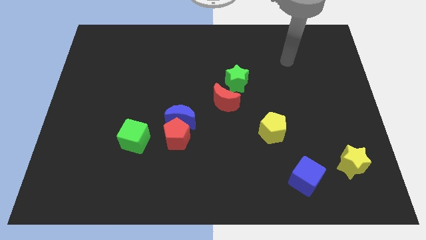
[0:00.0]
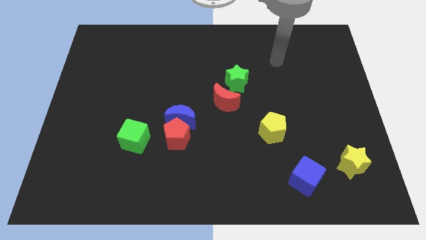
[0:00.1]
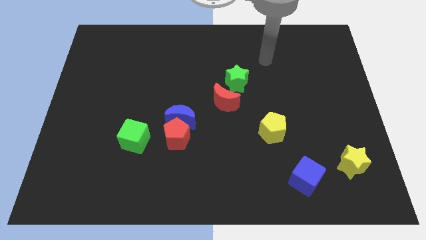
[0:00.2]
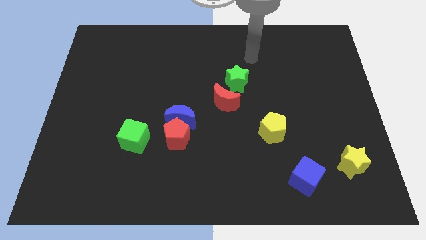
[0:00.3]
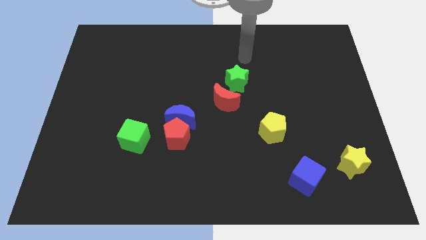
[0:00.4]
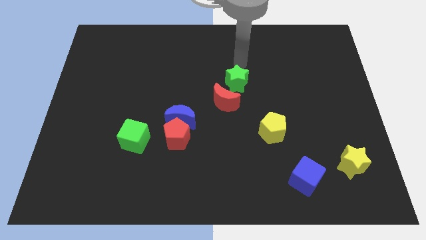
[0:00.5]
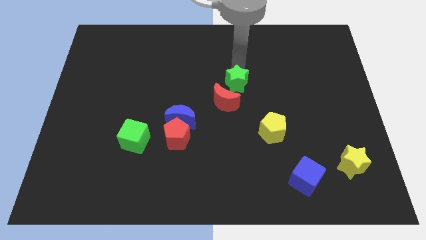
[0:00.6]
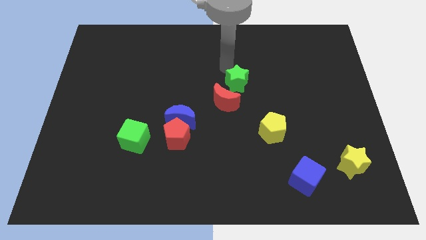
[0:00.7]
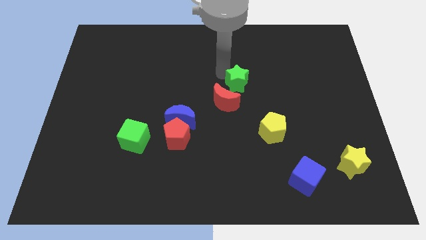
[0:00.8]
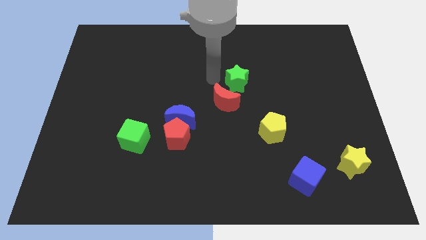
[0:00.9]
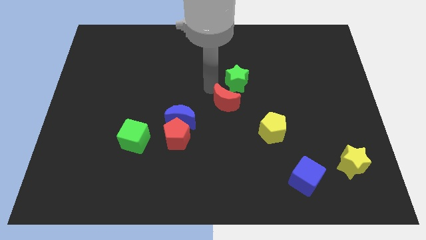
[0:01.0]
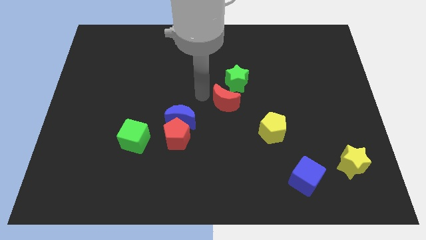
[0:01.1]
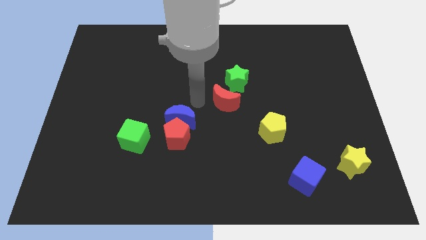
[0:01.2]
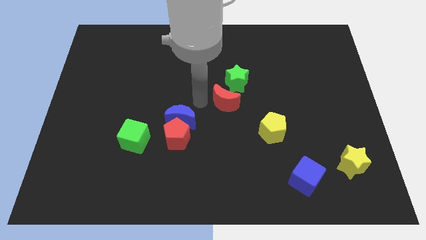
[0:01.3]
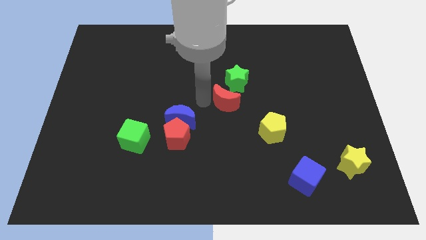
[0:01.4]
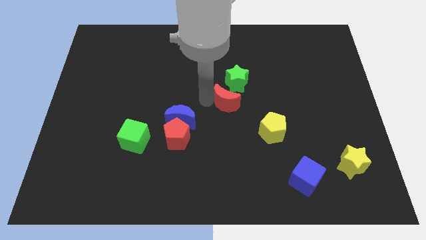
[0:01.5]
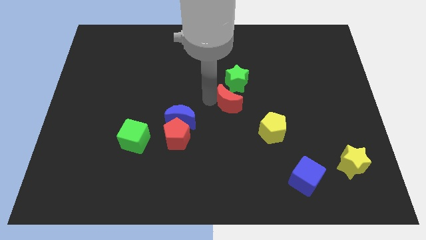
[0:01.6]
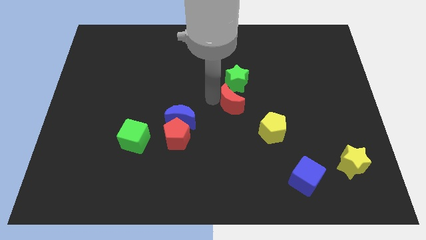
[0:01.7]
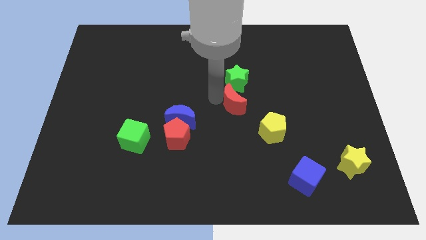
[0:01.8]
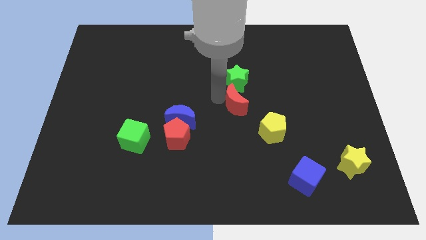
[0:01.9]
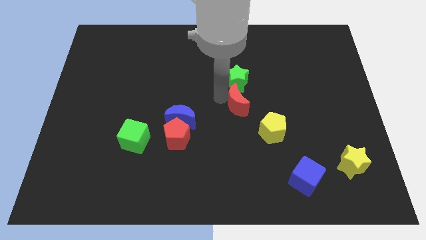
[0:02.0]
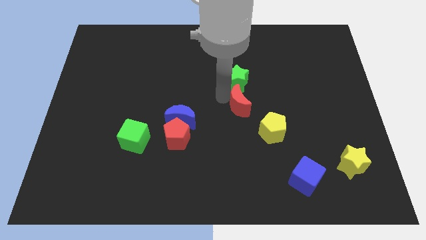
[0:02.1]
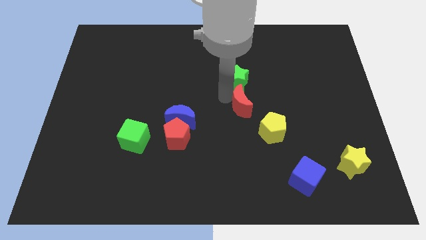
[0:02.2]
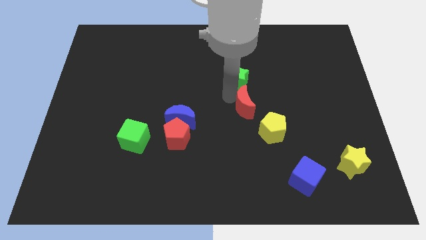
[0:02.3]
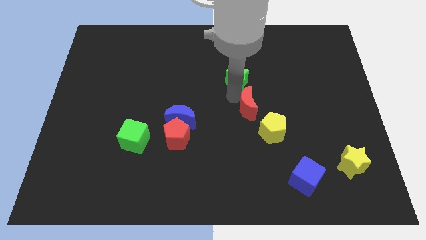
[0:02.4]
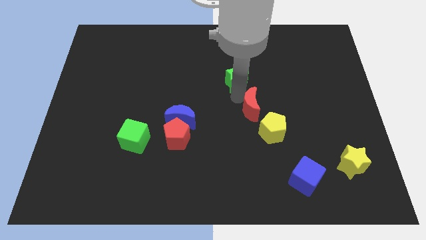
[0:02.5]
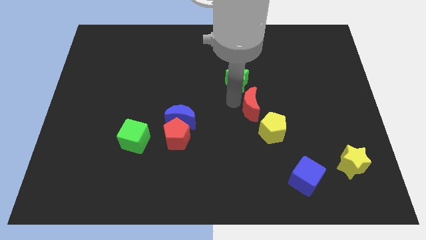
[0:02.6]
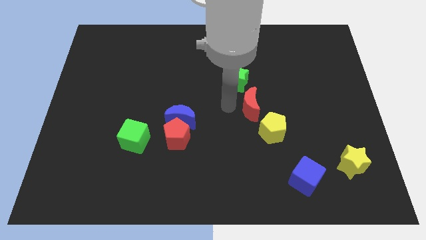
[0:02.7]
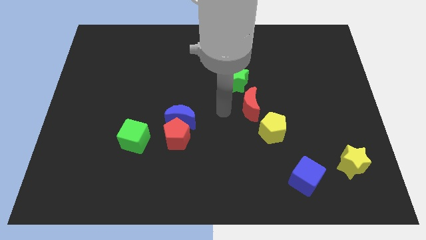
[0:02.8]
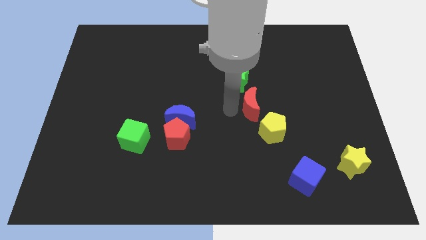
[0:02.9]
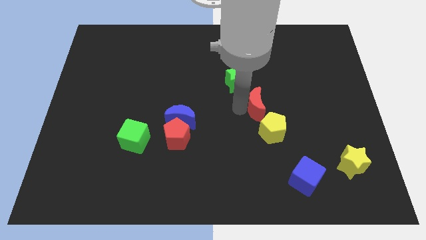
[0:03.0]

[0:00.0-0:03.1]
slightly push the red moon to the right

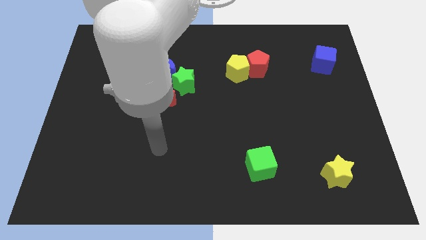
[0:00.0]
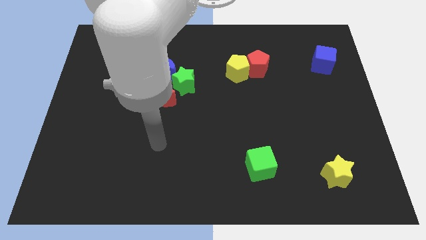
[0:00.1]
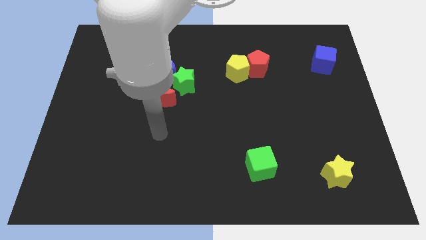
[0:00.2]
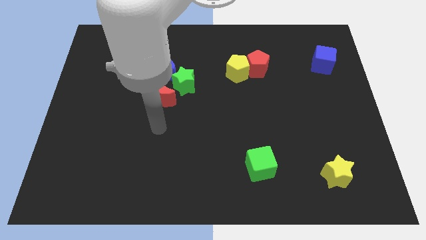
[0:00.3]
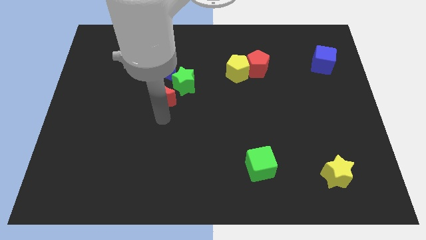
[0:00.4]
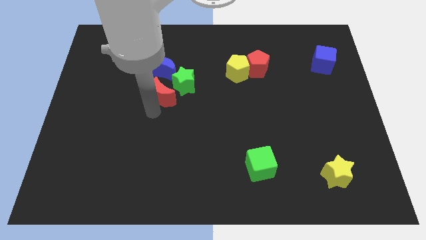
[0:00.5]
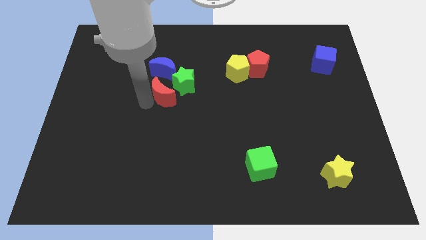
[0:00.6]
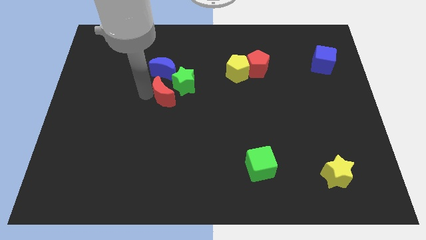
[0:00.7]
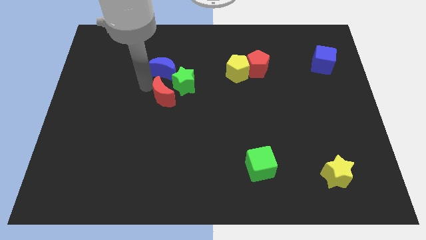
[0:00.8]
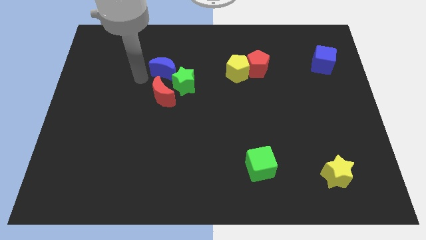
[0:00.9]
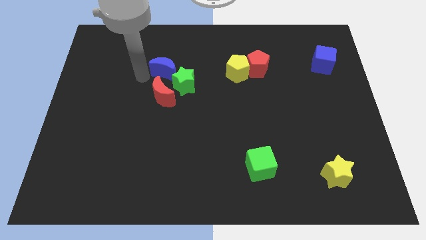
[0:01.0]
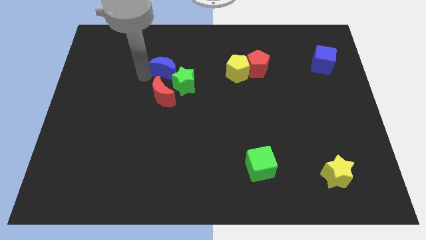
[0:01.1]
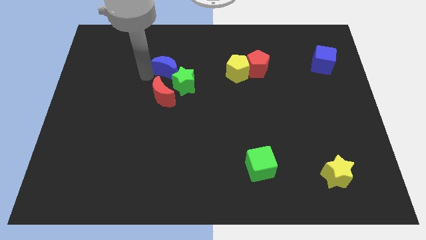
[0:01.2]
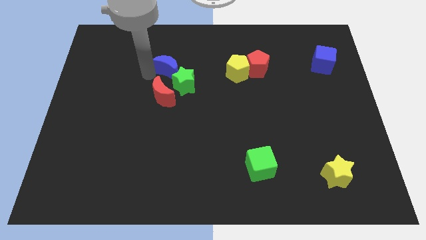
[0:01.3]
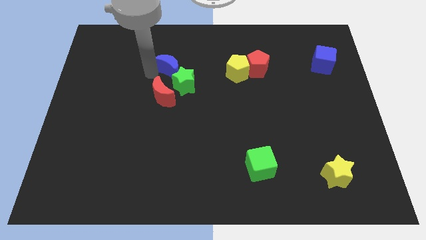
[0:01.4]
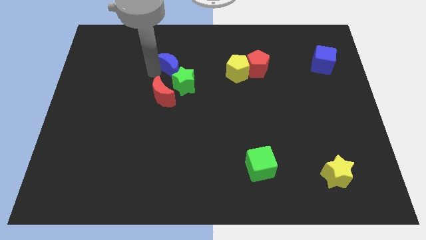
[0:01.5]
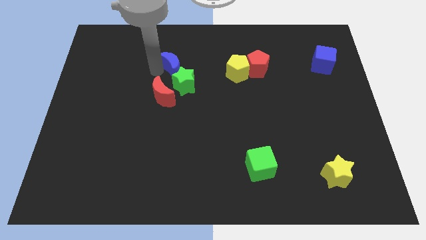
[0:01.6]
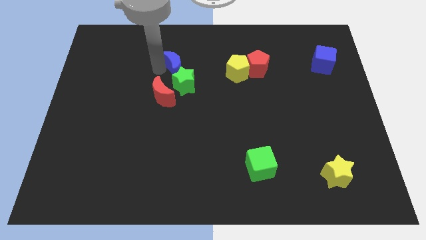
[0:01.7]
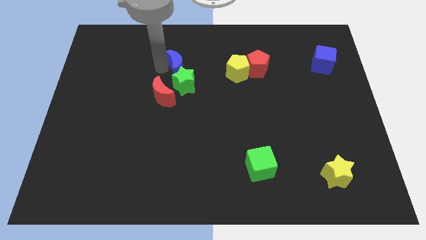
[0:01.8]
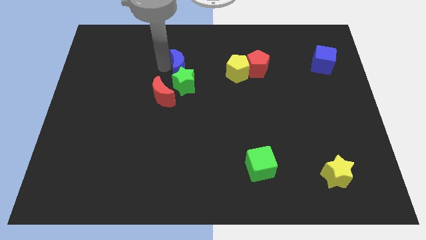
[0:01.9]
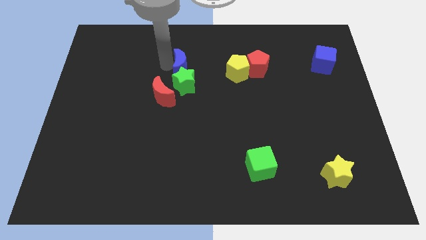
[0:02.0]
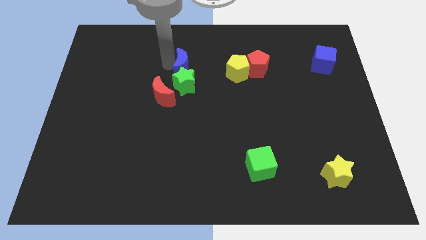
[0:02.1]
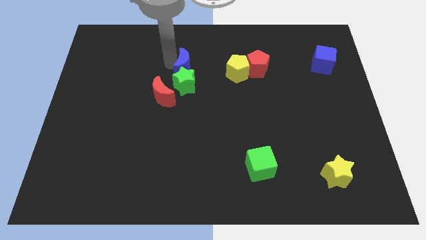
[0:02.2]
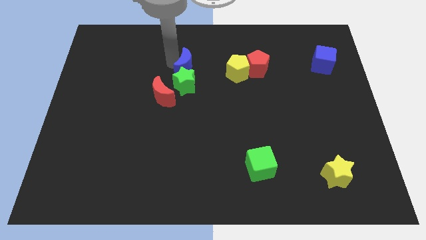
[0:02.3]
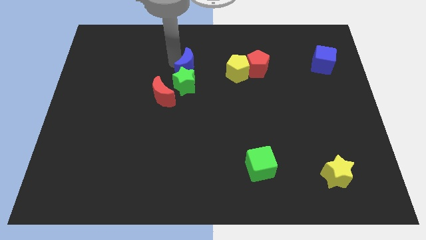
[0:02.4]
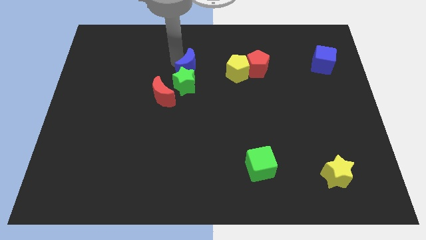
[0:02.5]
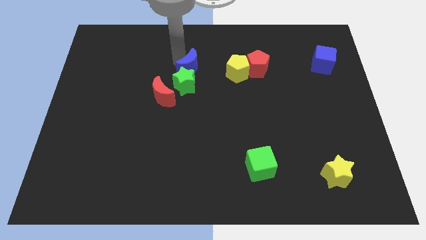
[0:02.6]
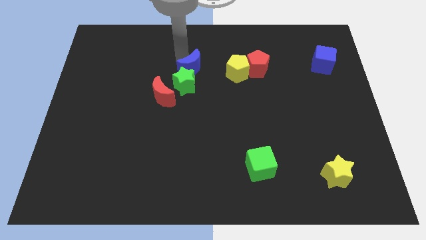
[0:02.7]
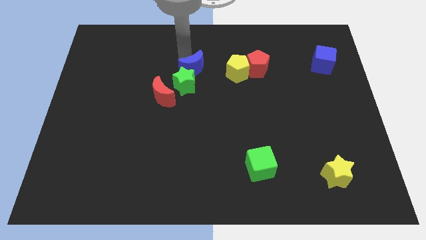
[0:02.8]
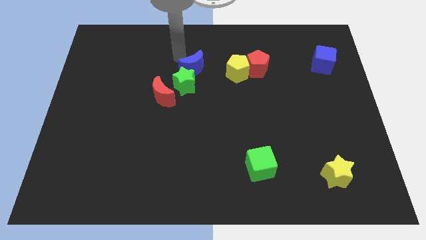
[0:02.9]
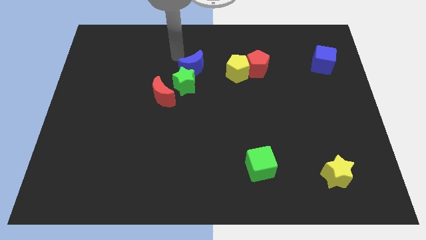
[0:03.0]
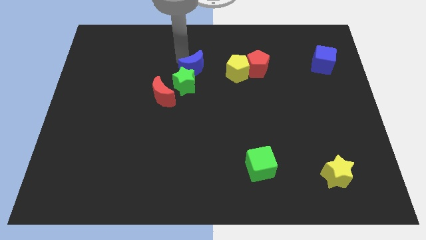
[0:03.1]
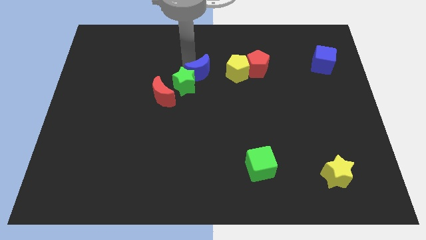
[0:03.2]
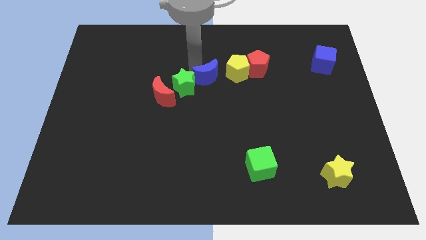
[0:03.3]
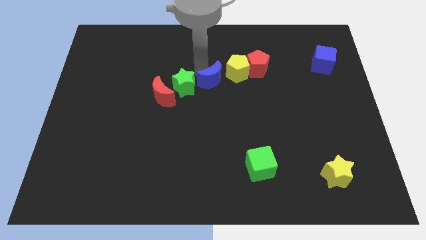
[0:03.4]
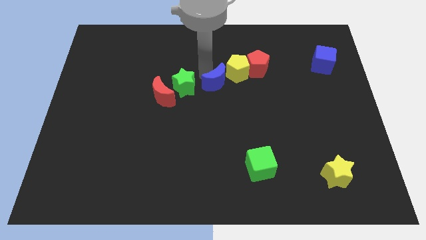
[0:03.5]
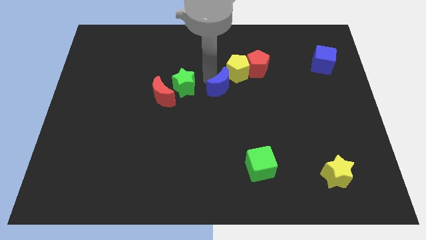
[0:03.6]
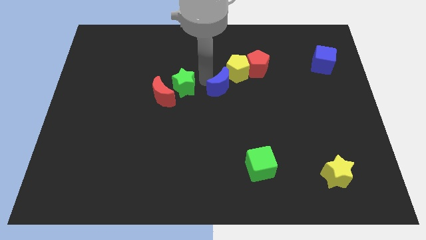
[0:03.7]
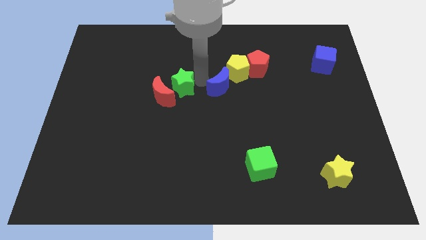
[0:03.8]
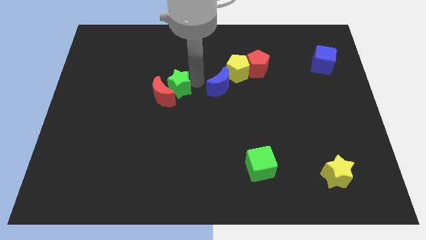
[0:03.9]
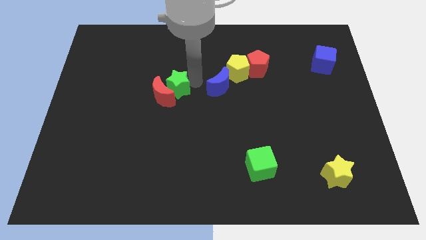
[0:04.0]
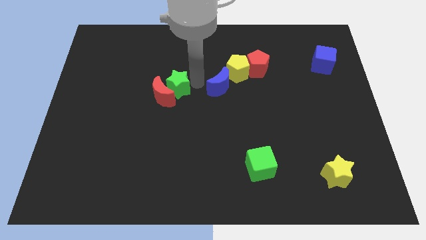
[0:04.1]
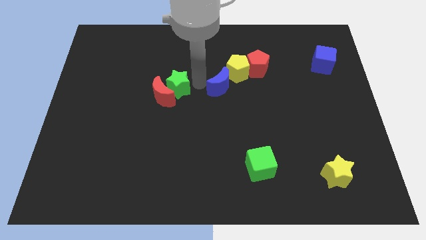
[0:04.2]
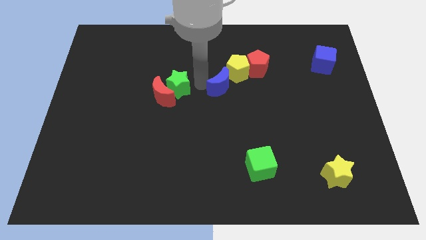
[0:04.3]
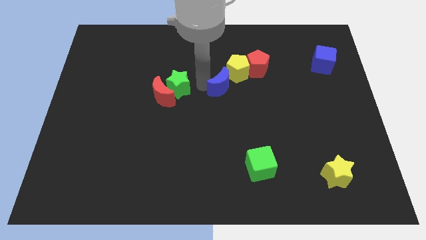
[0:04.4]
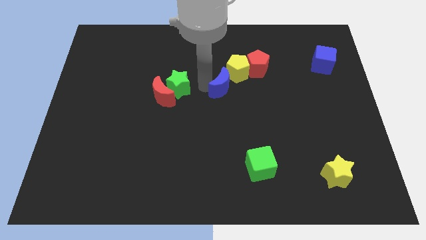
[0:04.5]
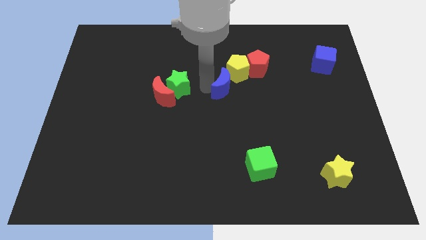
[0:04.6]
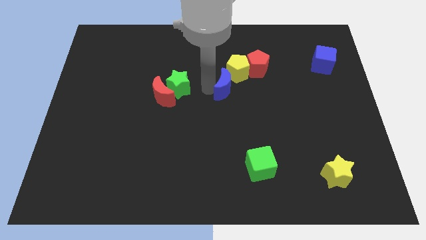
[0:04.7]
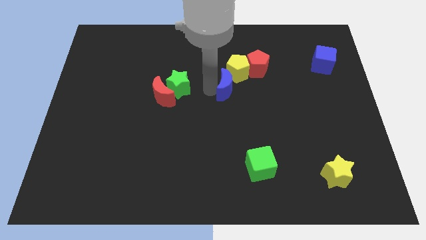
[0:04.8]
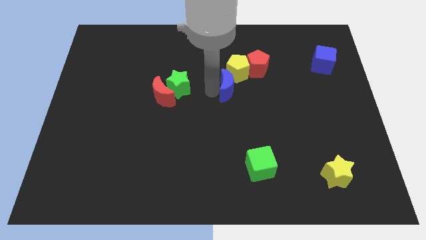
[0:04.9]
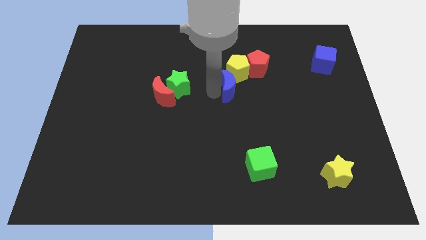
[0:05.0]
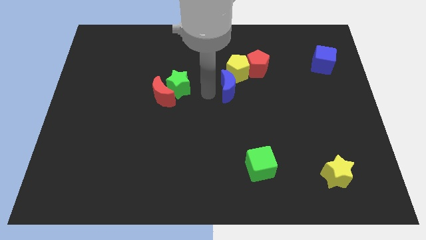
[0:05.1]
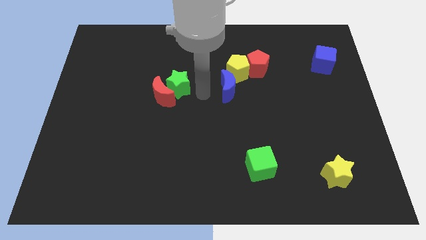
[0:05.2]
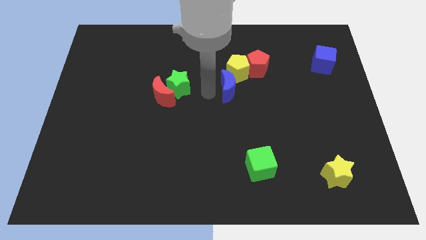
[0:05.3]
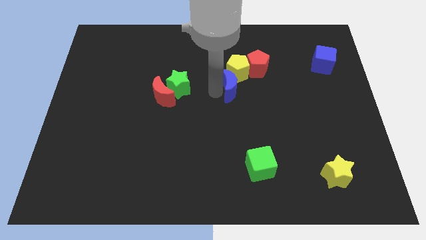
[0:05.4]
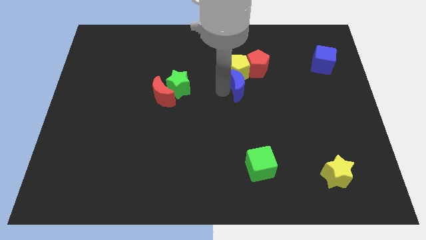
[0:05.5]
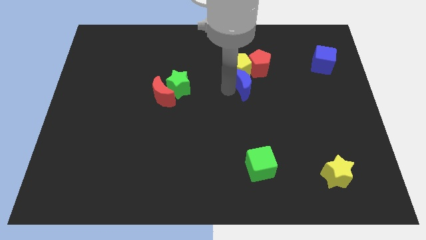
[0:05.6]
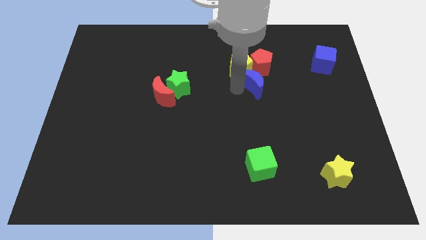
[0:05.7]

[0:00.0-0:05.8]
push the blue moon right
